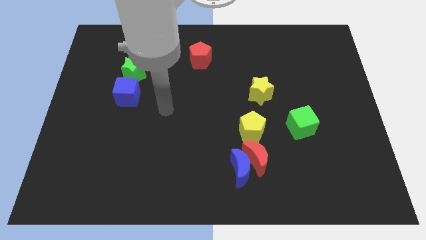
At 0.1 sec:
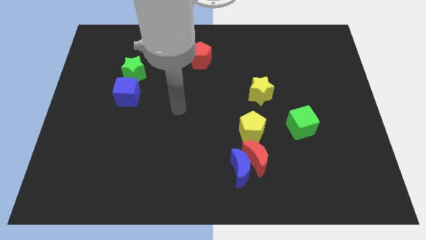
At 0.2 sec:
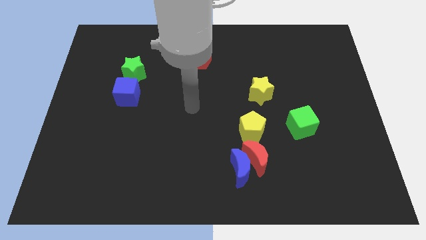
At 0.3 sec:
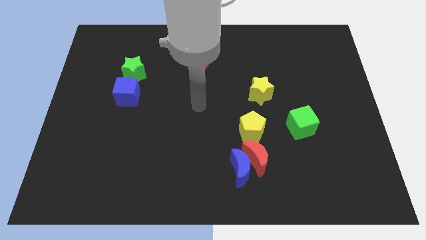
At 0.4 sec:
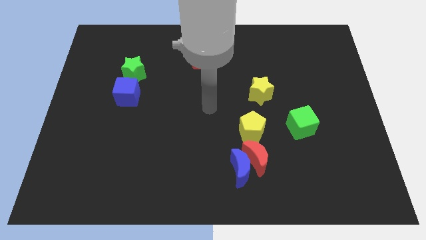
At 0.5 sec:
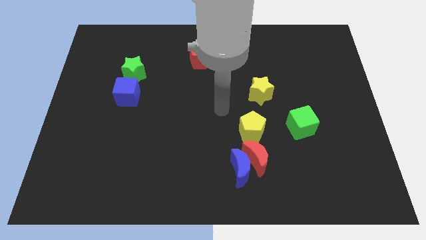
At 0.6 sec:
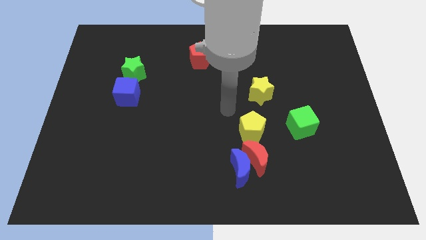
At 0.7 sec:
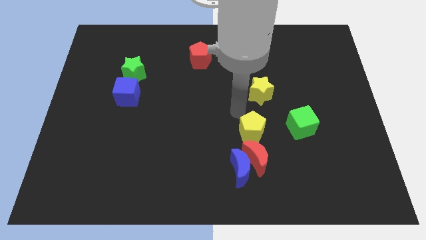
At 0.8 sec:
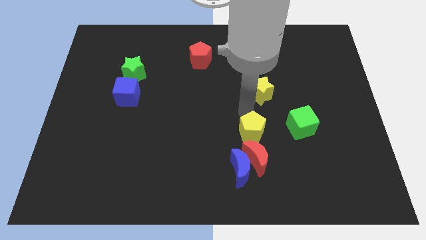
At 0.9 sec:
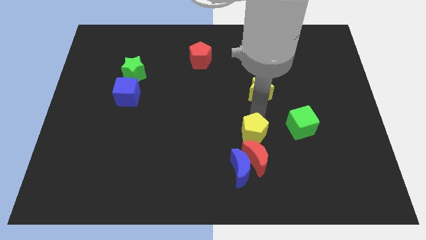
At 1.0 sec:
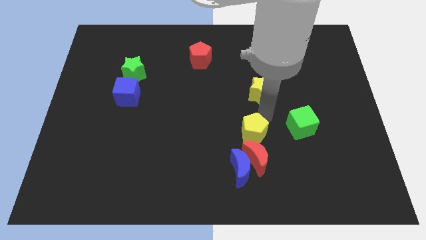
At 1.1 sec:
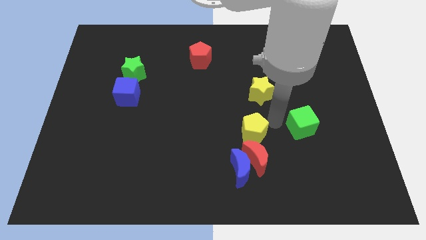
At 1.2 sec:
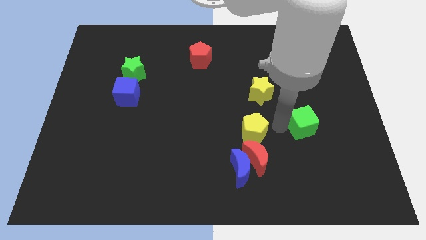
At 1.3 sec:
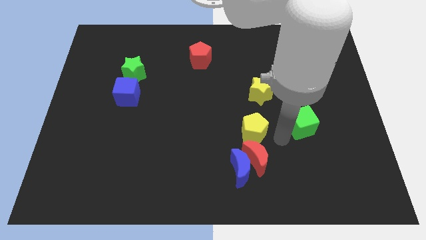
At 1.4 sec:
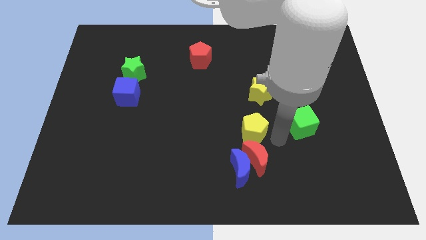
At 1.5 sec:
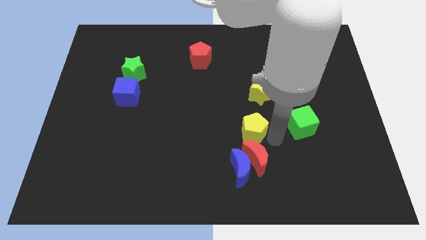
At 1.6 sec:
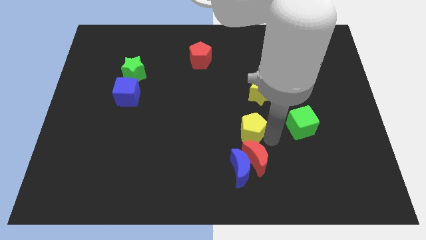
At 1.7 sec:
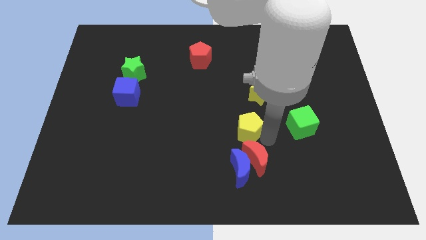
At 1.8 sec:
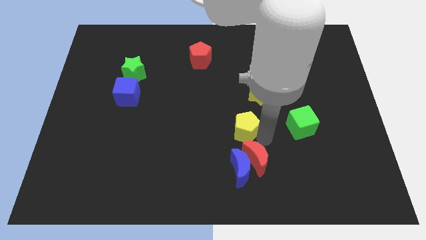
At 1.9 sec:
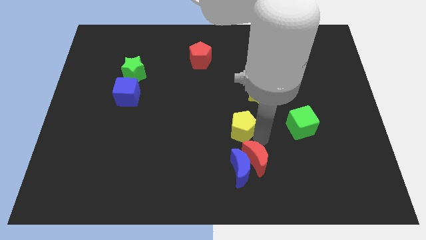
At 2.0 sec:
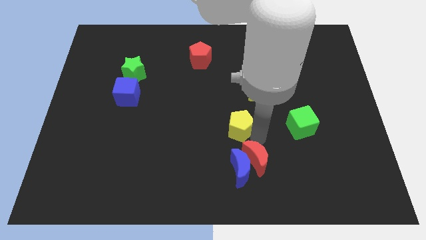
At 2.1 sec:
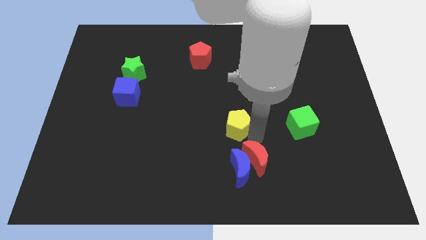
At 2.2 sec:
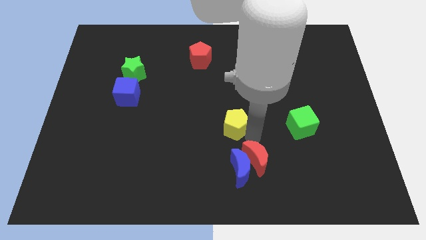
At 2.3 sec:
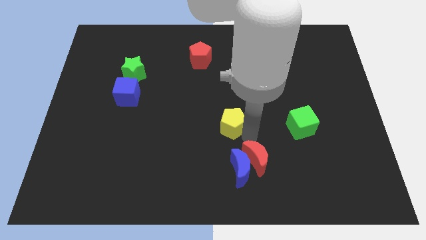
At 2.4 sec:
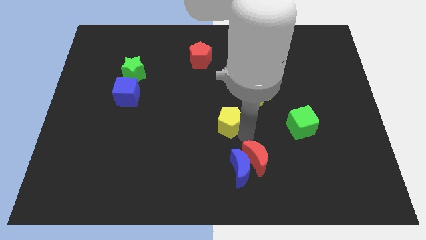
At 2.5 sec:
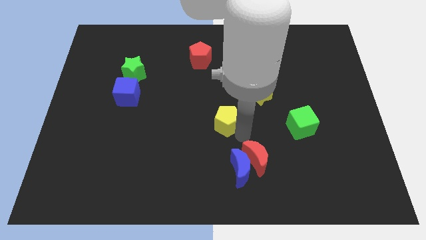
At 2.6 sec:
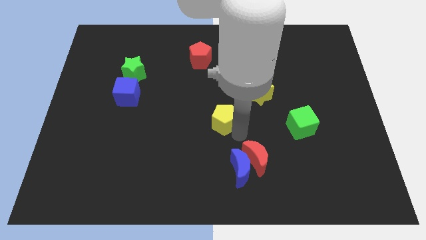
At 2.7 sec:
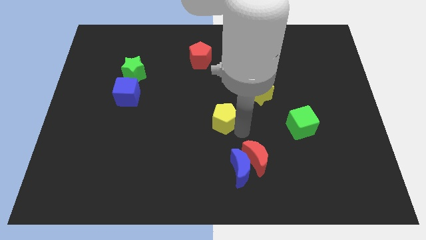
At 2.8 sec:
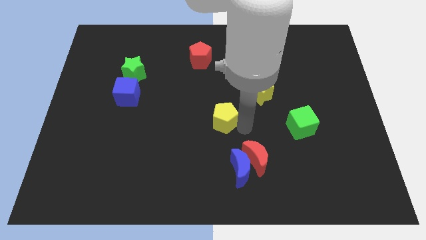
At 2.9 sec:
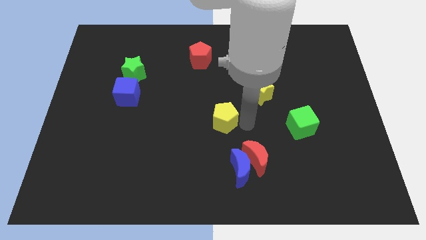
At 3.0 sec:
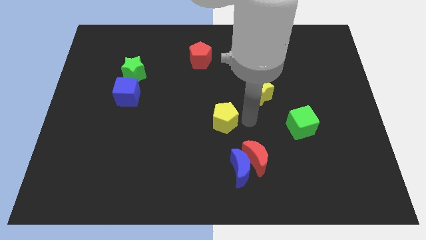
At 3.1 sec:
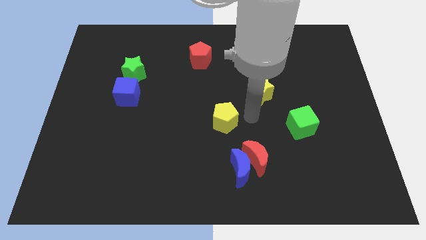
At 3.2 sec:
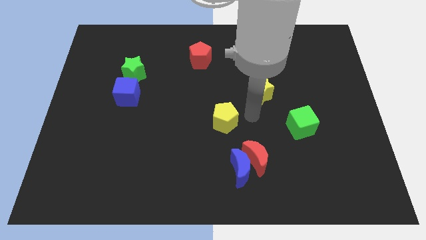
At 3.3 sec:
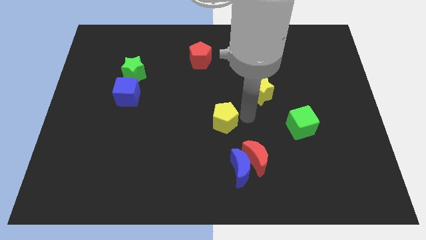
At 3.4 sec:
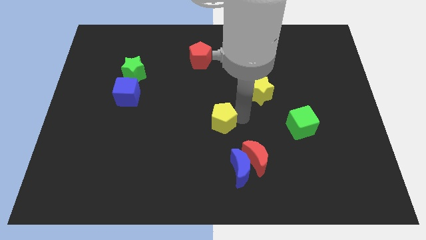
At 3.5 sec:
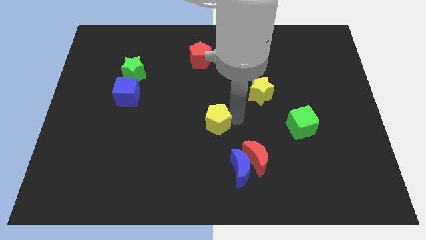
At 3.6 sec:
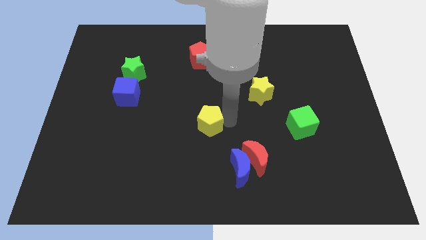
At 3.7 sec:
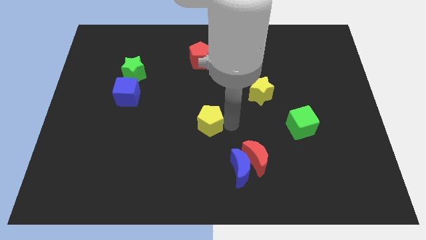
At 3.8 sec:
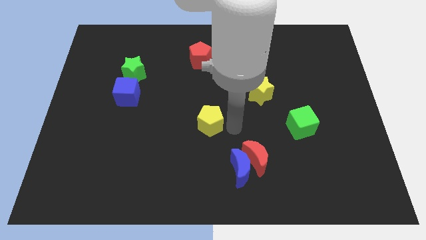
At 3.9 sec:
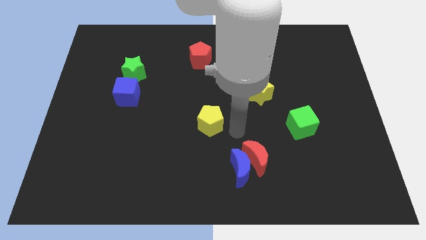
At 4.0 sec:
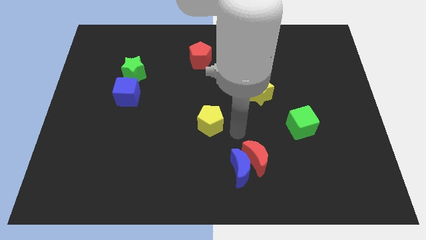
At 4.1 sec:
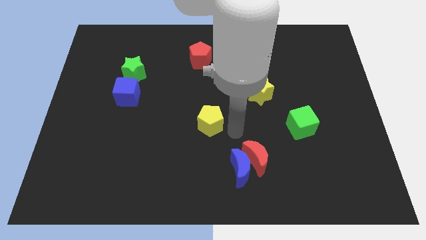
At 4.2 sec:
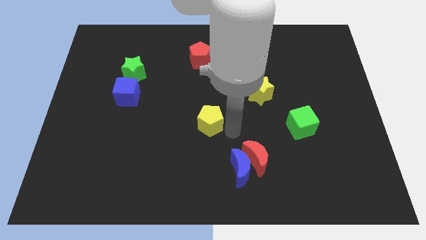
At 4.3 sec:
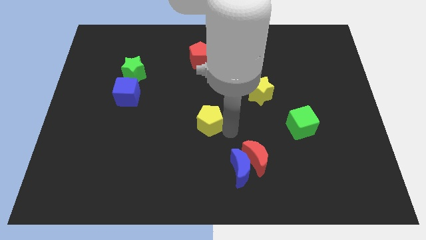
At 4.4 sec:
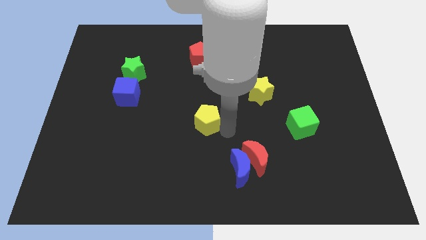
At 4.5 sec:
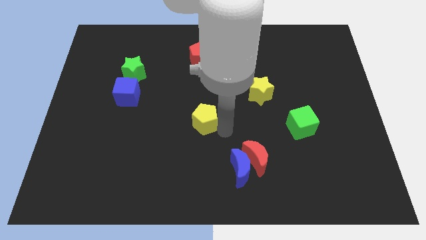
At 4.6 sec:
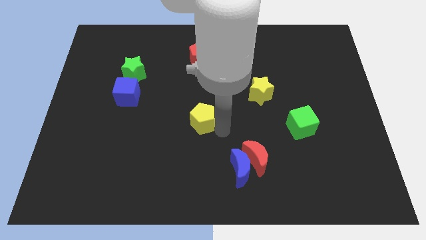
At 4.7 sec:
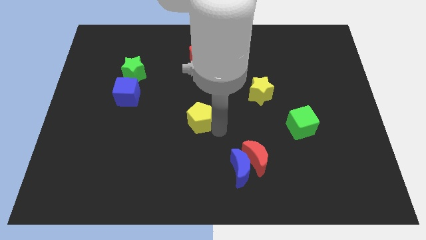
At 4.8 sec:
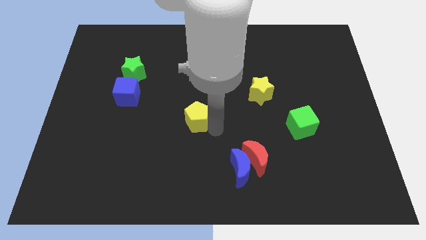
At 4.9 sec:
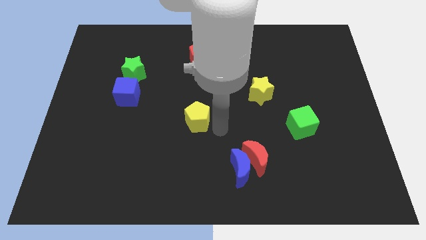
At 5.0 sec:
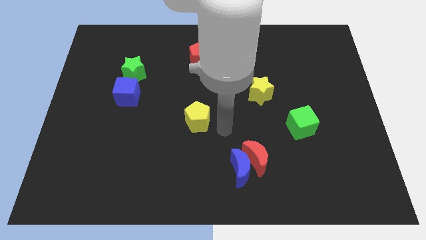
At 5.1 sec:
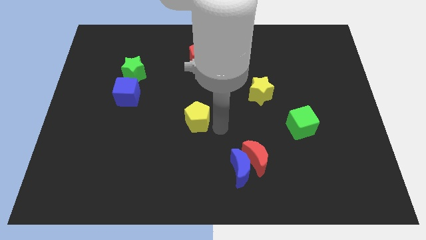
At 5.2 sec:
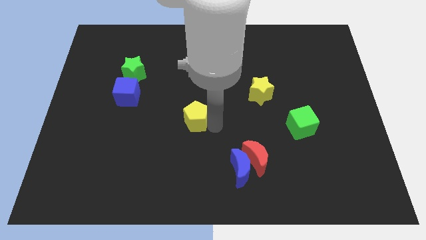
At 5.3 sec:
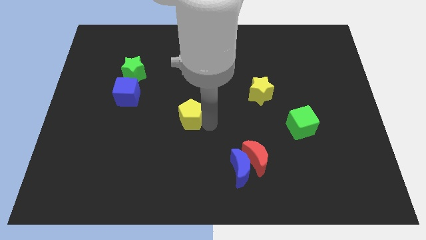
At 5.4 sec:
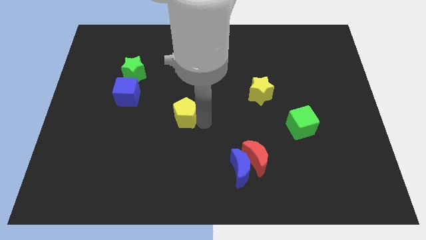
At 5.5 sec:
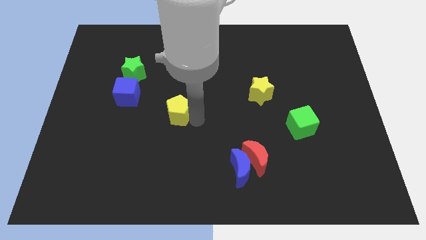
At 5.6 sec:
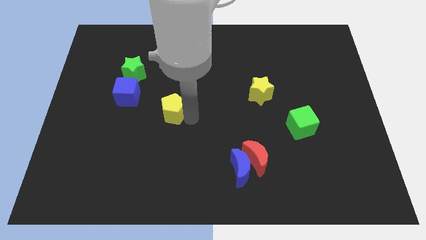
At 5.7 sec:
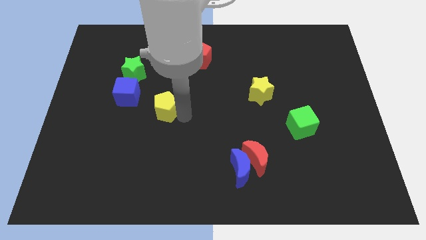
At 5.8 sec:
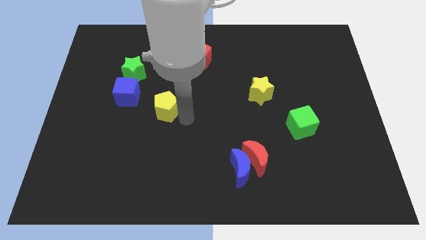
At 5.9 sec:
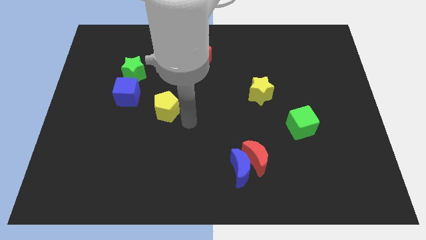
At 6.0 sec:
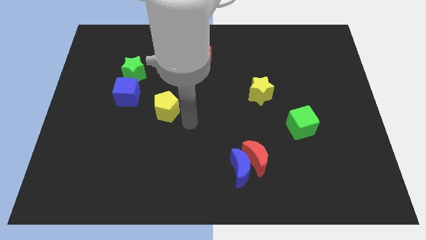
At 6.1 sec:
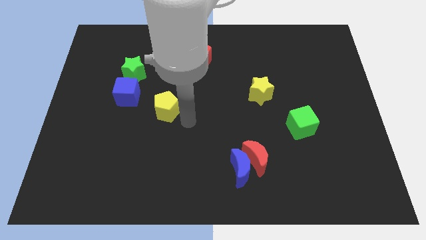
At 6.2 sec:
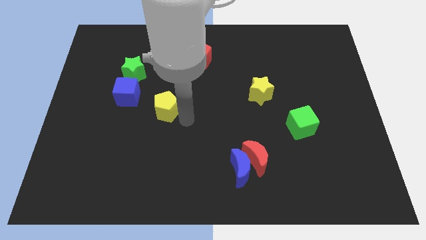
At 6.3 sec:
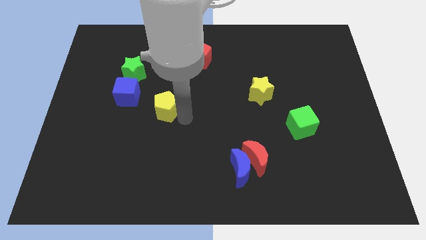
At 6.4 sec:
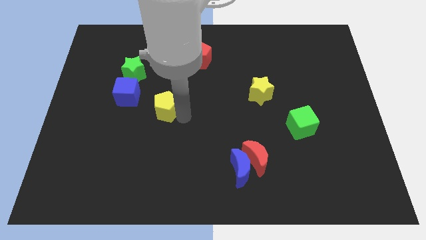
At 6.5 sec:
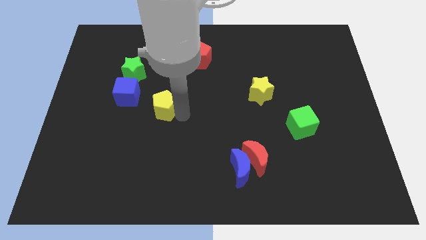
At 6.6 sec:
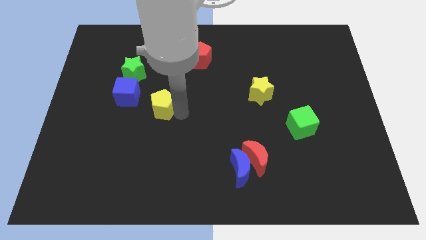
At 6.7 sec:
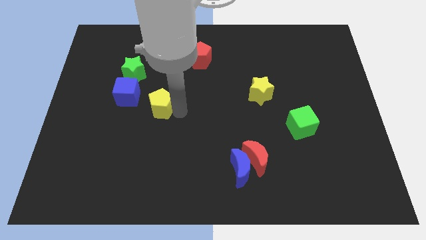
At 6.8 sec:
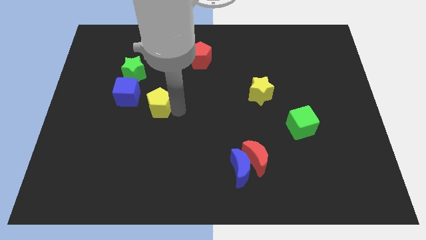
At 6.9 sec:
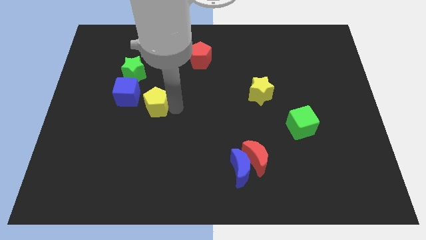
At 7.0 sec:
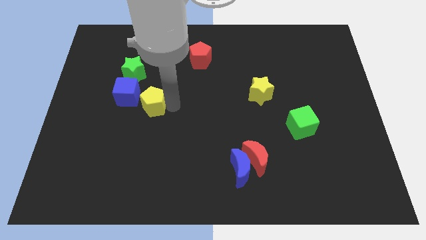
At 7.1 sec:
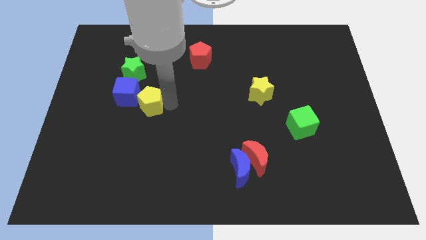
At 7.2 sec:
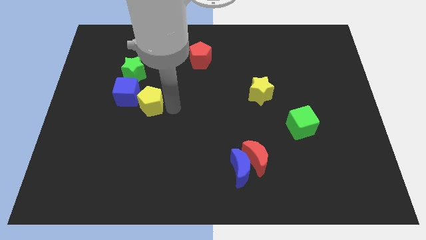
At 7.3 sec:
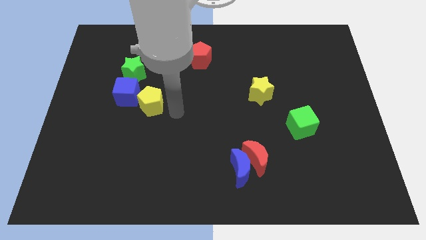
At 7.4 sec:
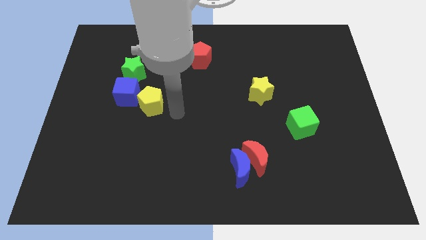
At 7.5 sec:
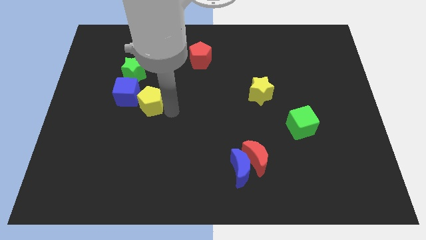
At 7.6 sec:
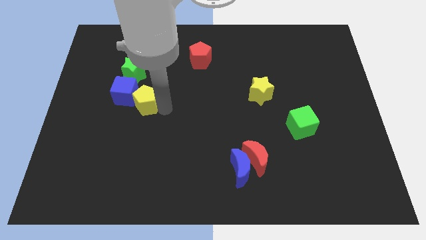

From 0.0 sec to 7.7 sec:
slide the yellow pentagon close to the blue cube
